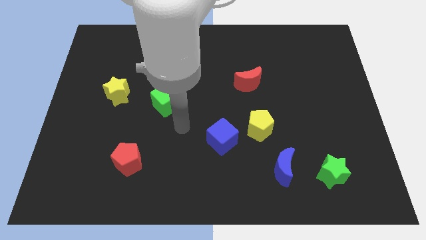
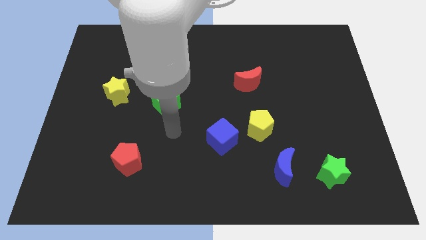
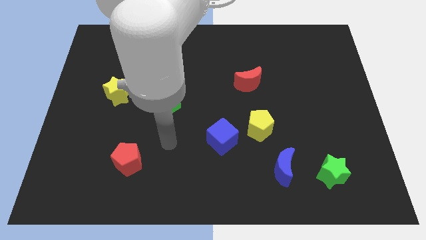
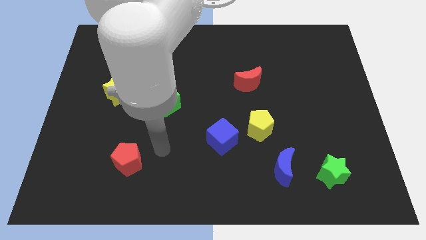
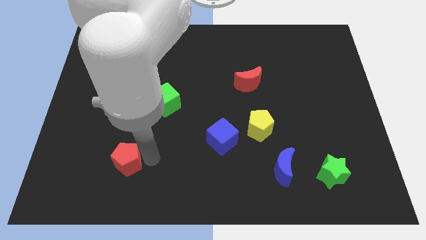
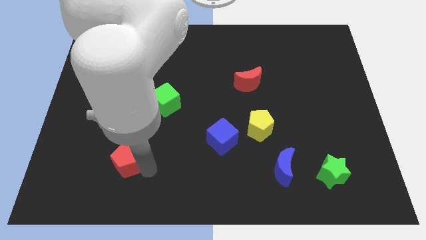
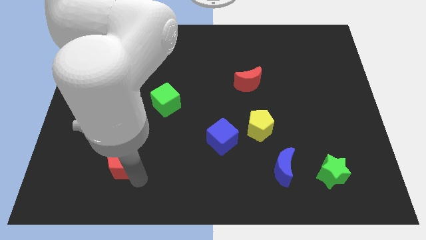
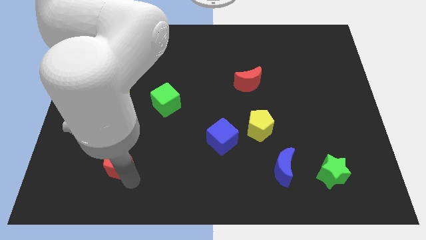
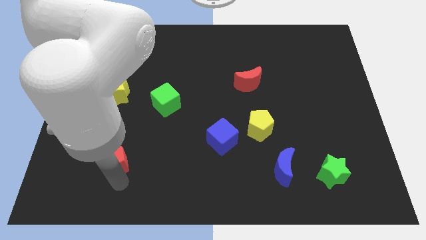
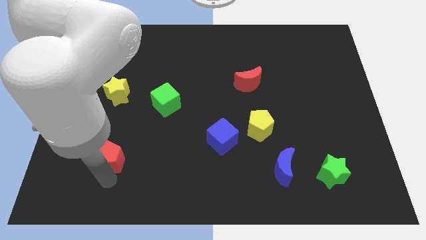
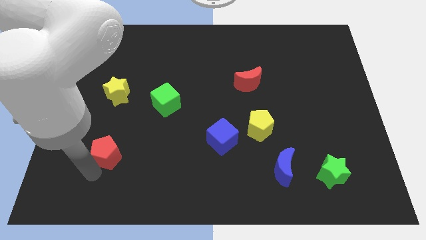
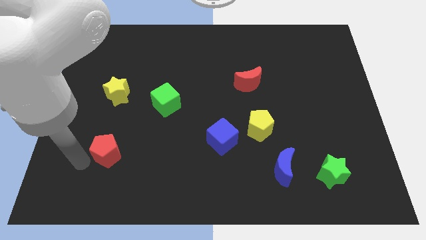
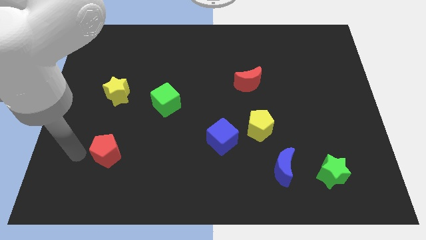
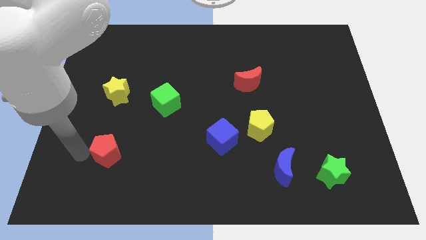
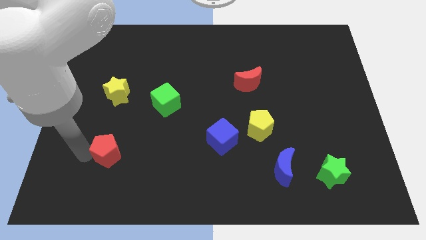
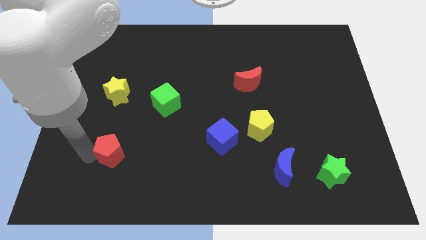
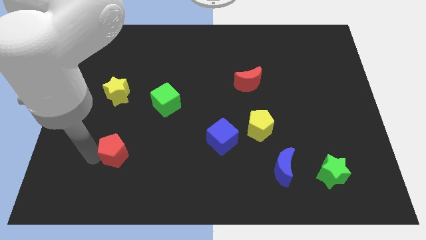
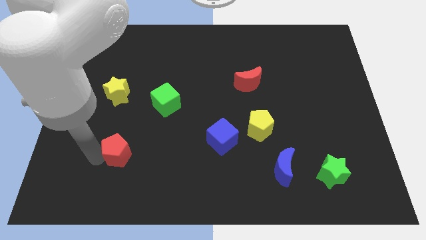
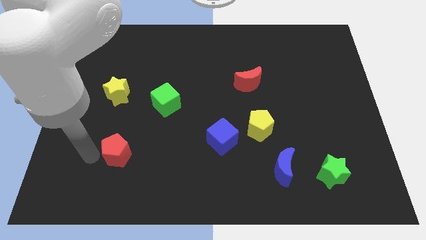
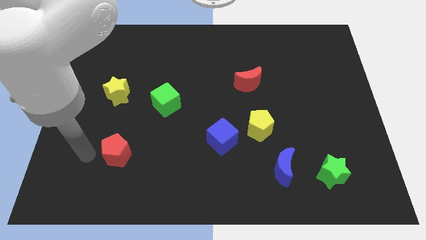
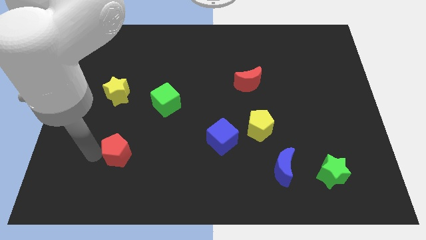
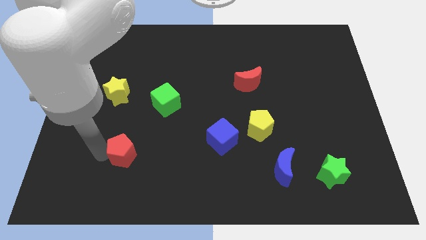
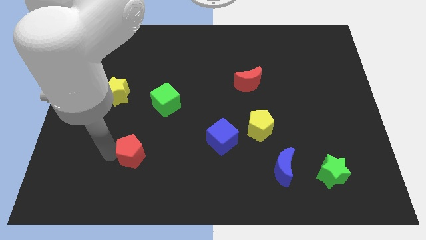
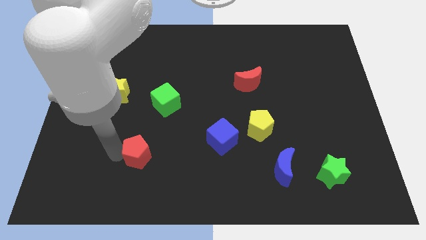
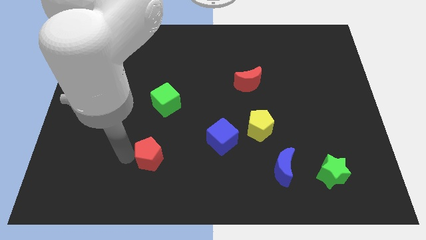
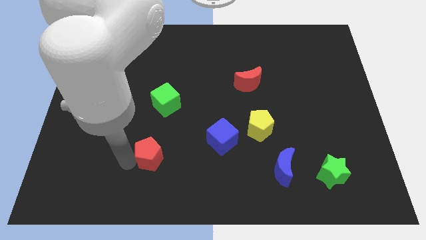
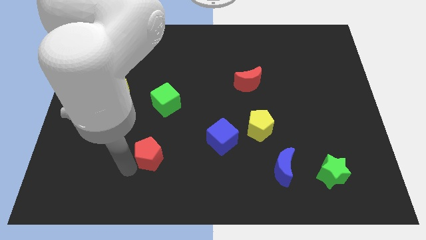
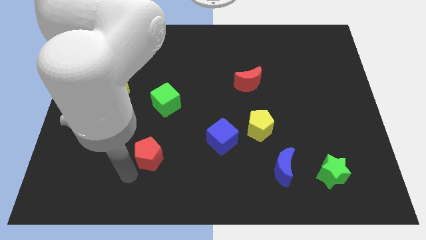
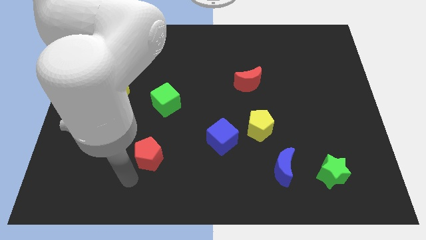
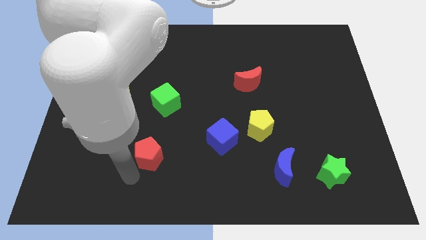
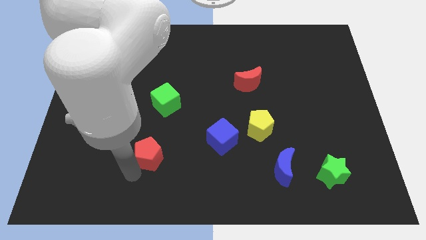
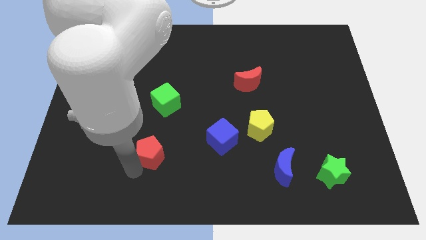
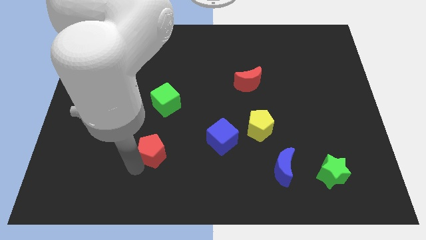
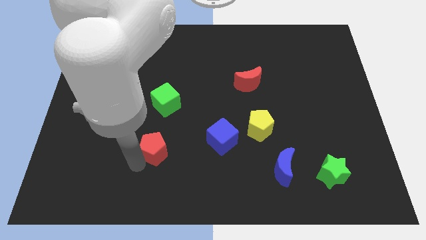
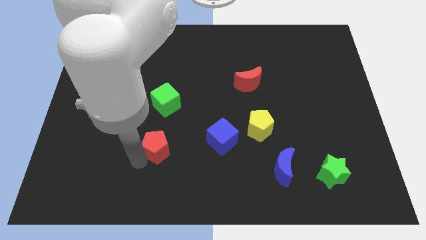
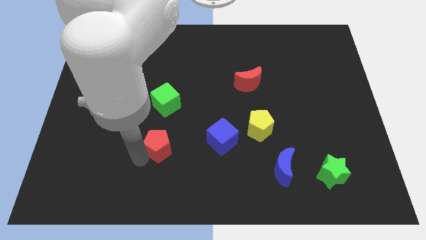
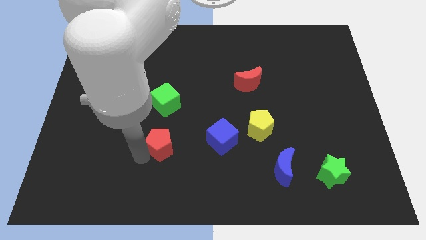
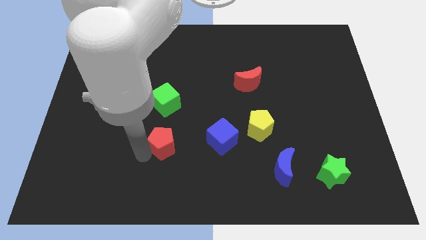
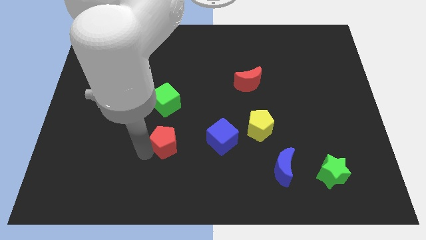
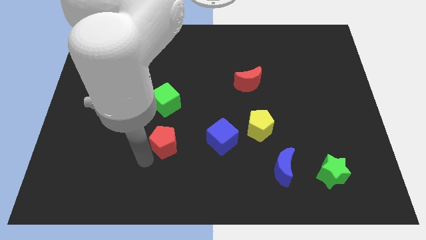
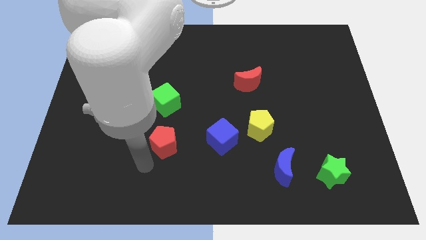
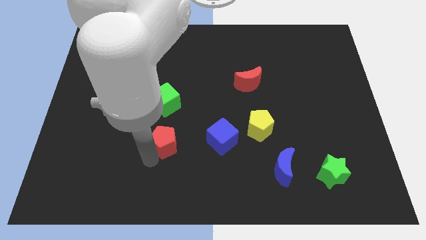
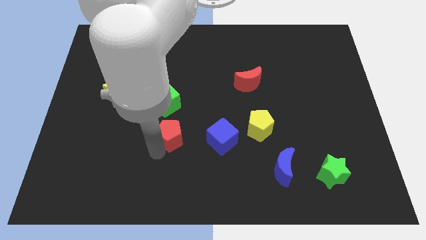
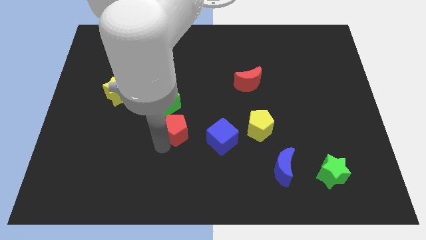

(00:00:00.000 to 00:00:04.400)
move the red pentagon to the middle

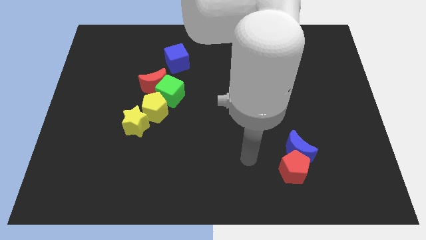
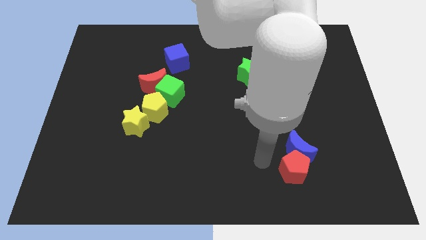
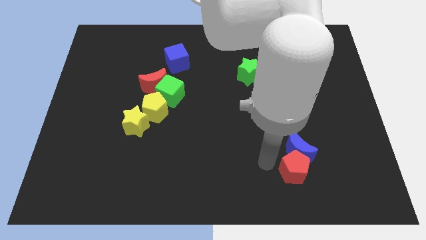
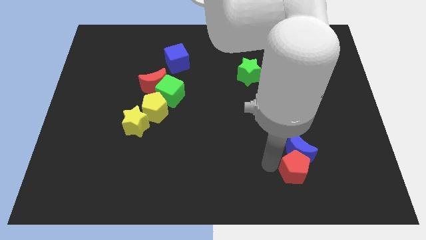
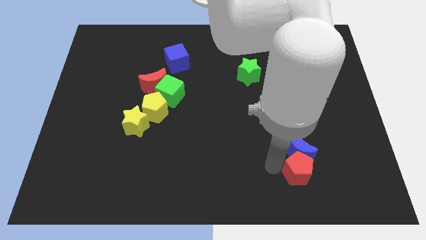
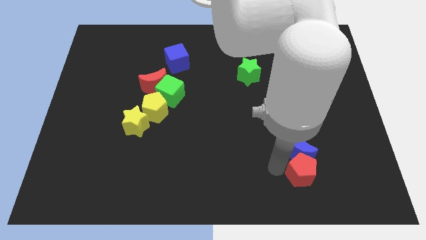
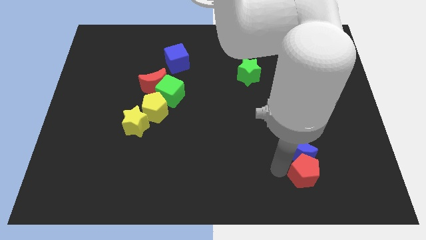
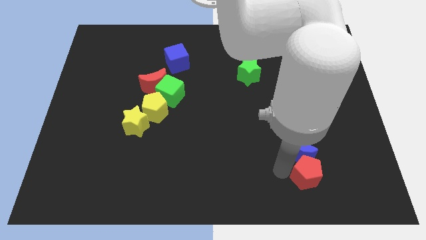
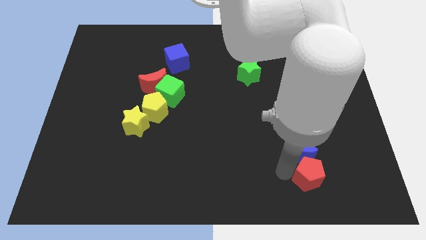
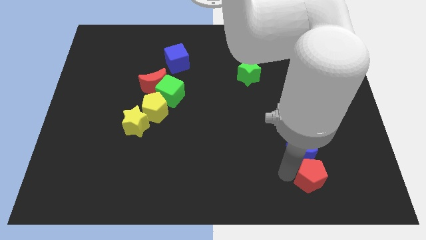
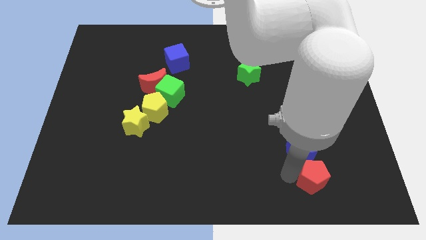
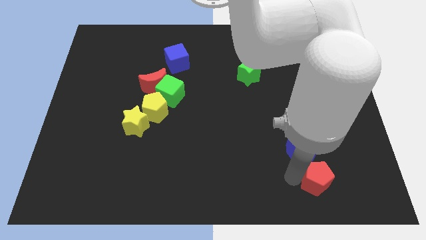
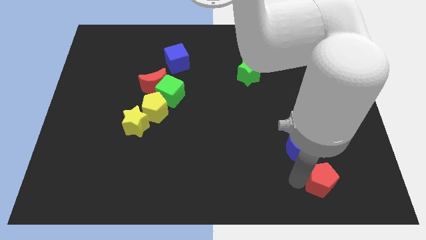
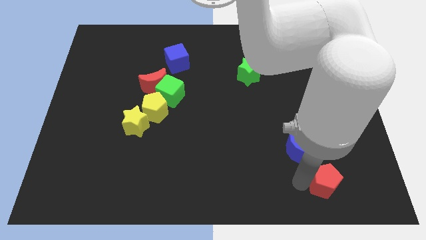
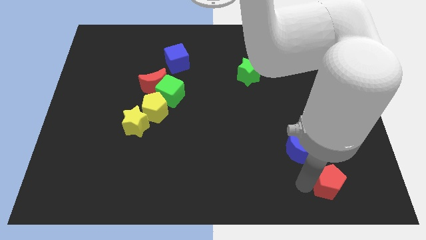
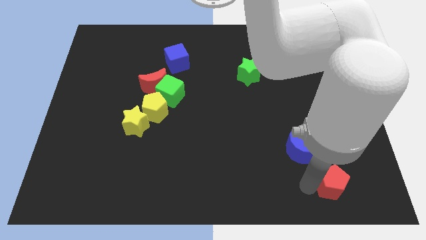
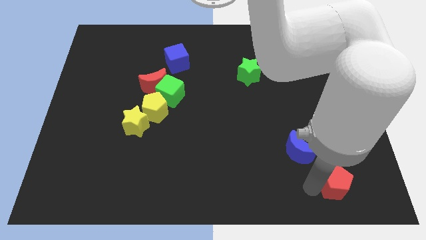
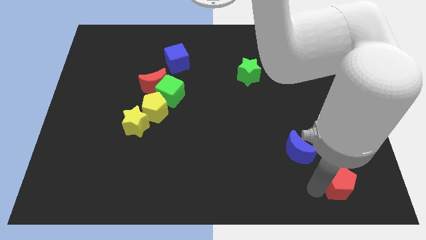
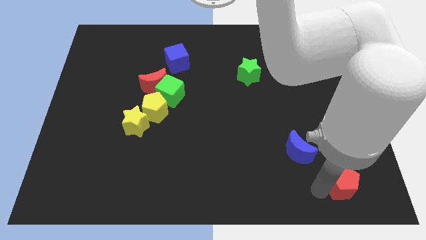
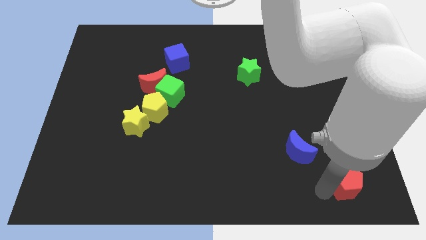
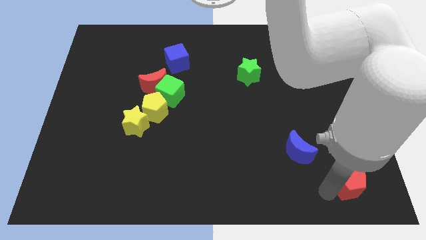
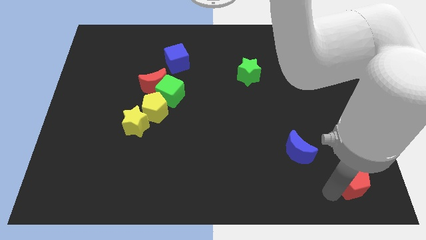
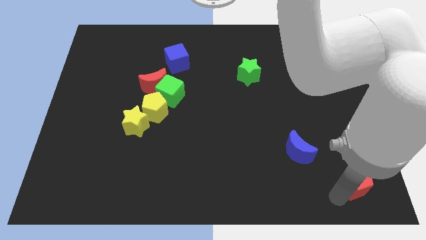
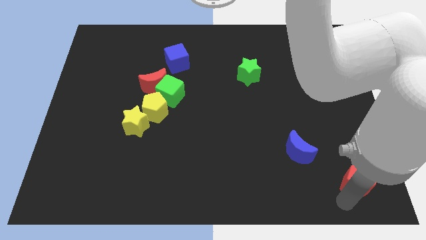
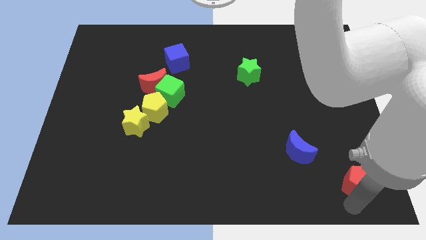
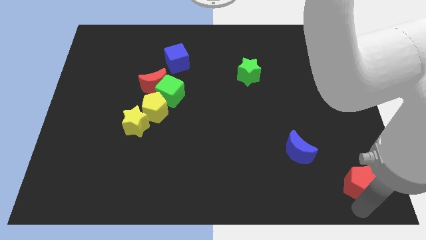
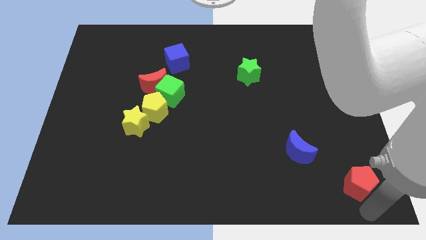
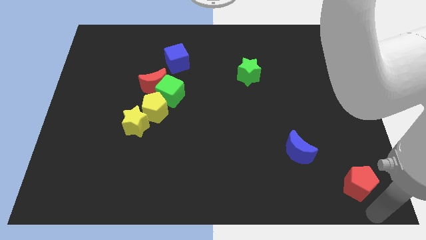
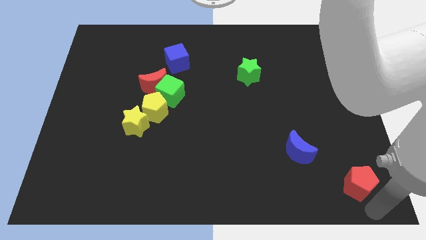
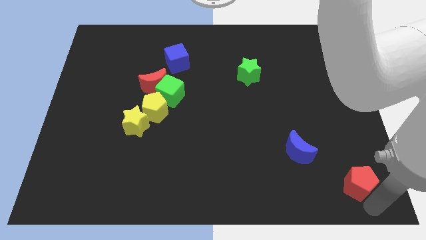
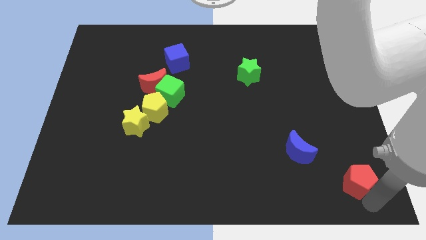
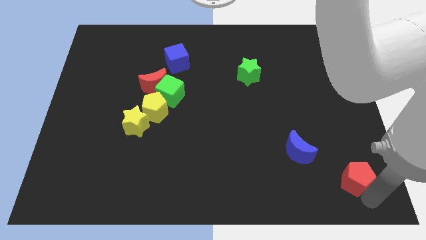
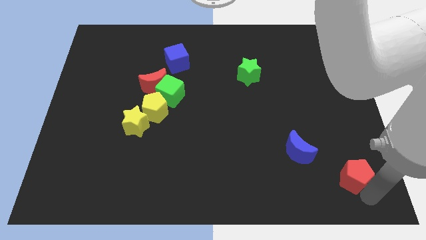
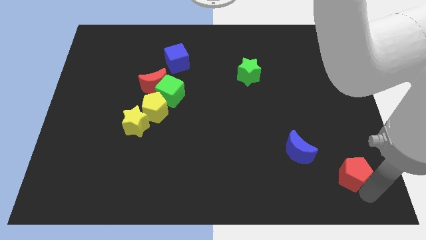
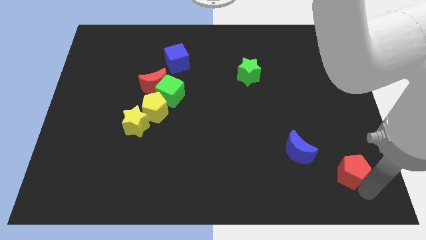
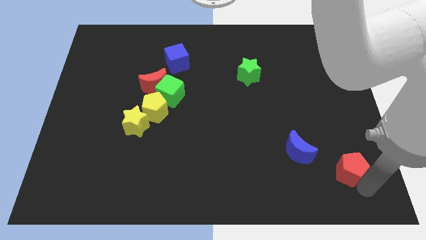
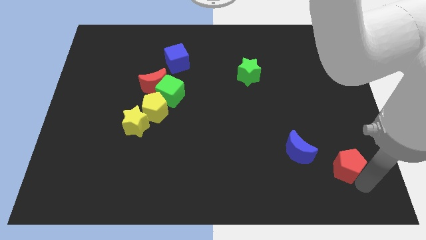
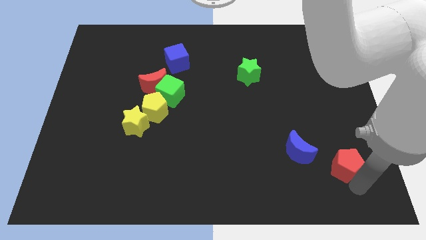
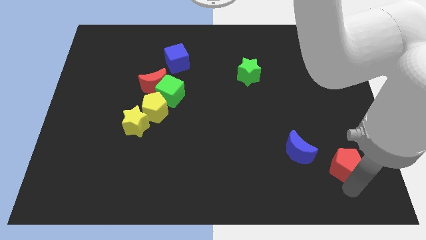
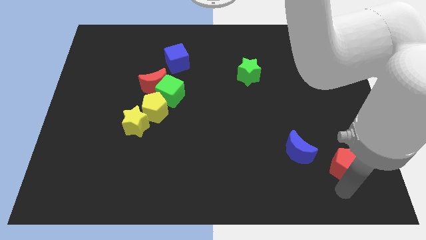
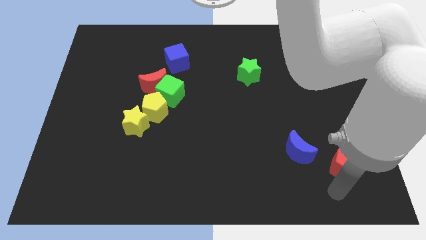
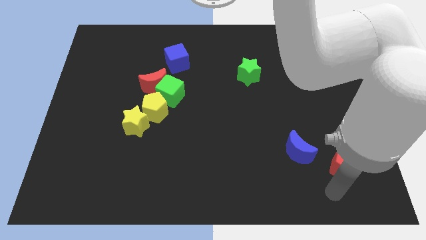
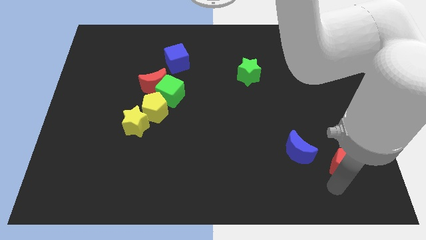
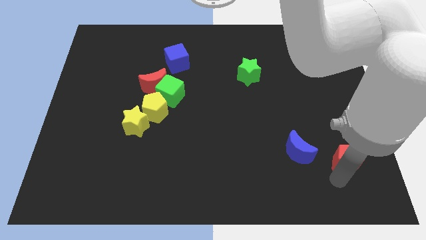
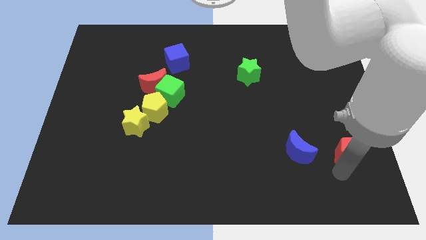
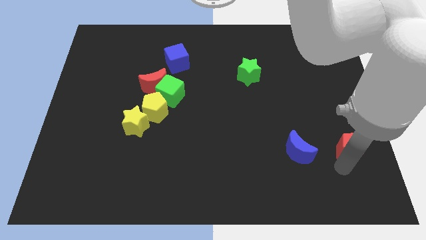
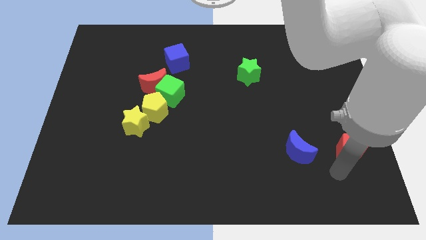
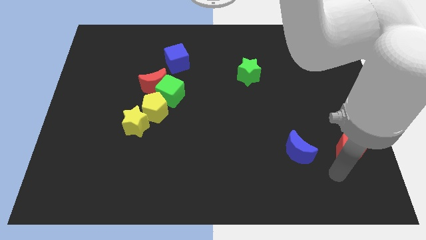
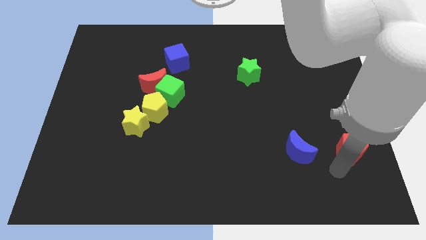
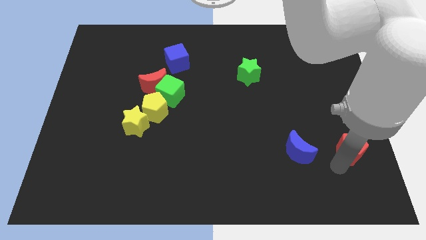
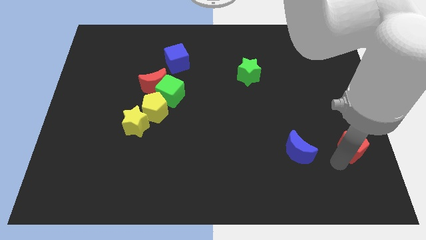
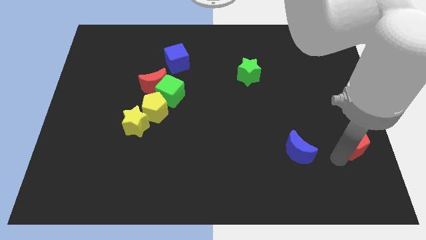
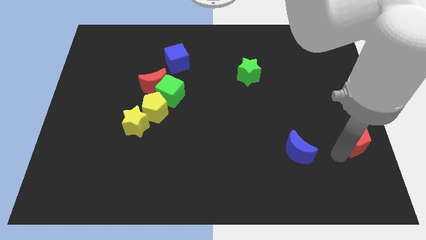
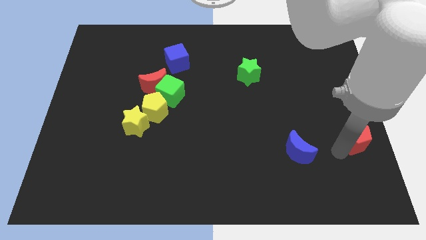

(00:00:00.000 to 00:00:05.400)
push the red pentagon to the center right
